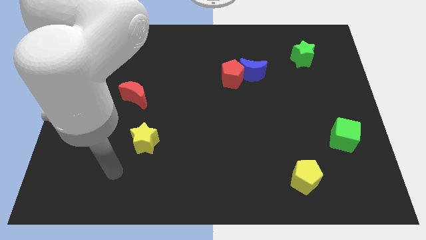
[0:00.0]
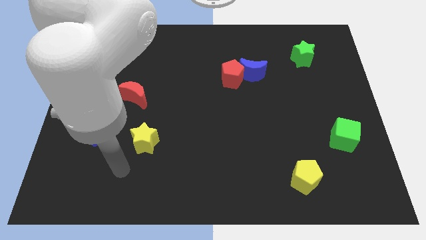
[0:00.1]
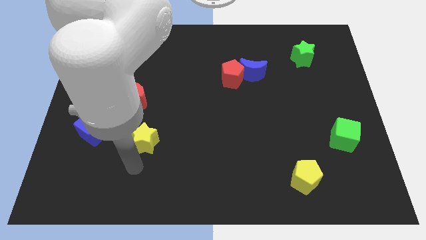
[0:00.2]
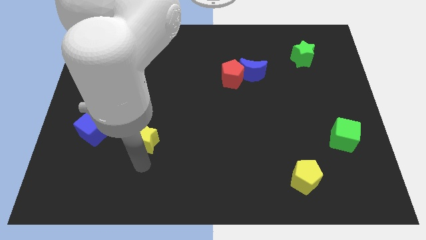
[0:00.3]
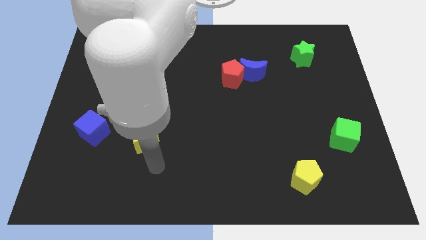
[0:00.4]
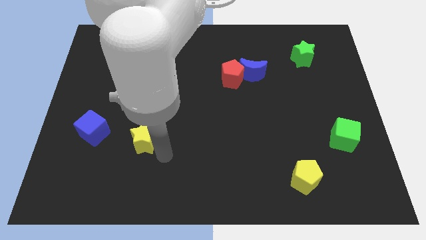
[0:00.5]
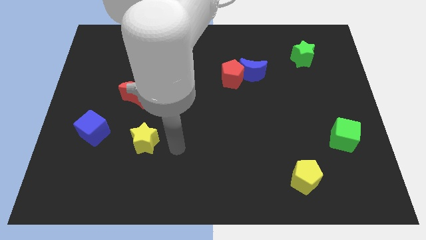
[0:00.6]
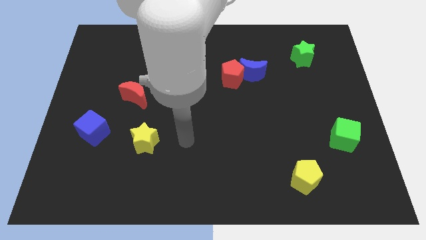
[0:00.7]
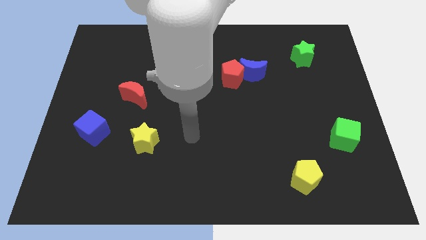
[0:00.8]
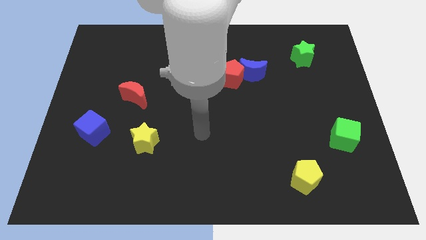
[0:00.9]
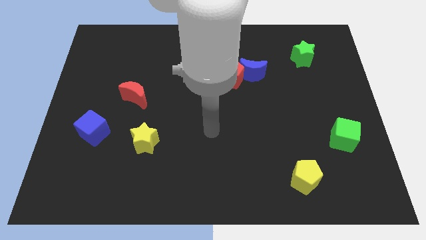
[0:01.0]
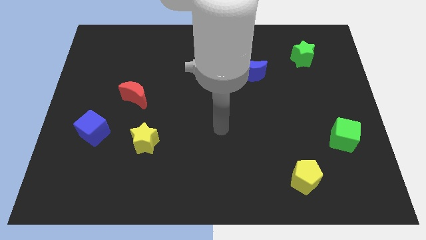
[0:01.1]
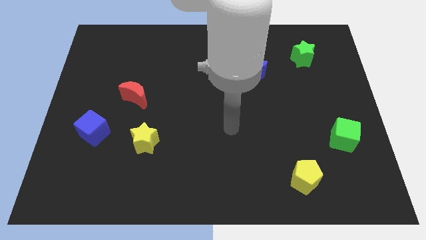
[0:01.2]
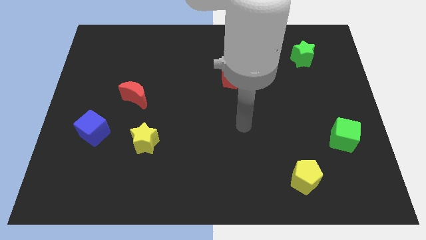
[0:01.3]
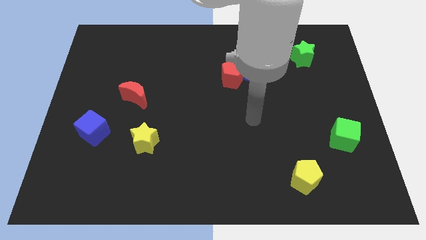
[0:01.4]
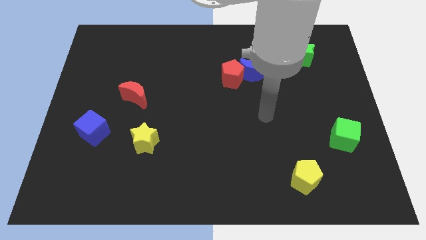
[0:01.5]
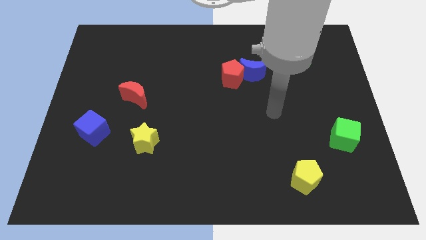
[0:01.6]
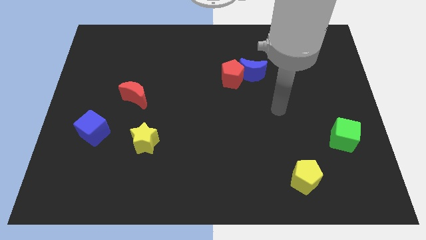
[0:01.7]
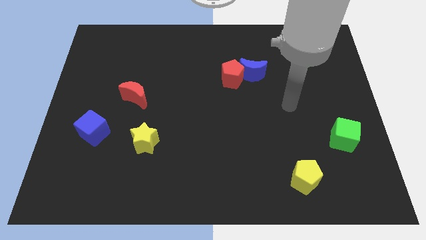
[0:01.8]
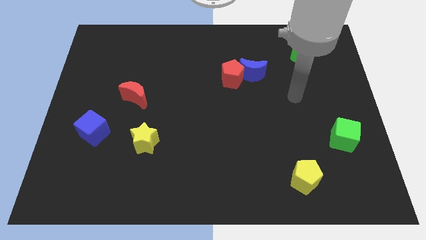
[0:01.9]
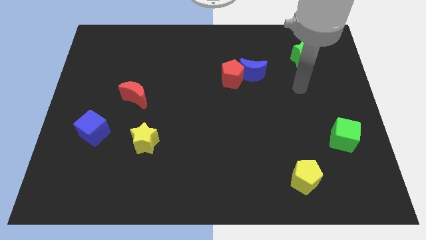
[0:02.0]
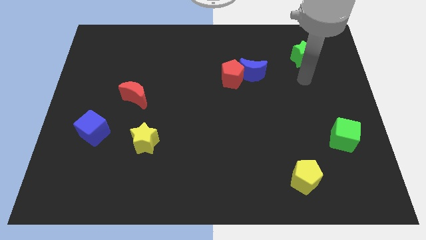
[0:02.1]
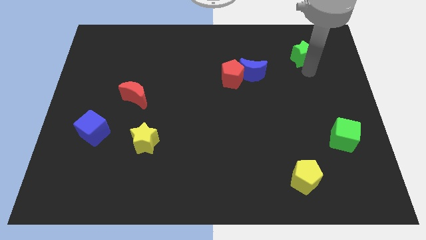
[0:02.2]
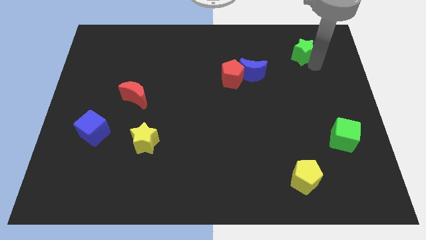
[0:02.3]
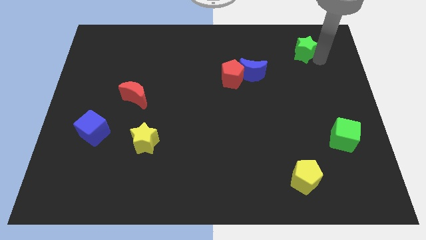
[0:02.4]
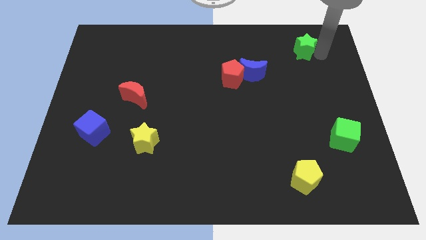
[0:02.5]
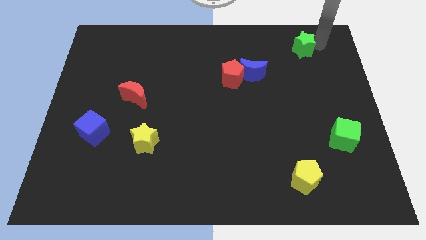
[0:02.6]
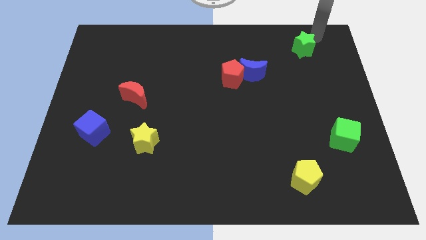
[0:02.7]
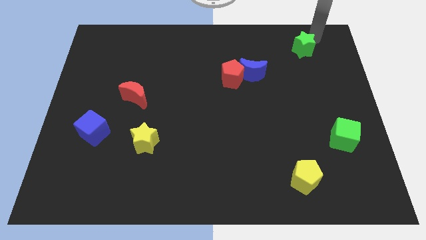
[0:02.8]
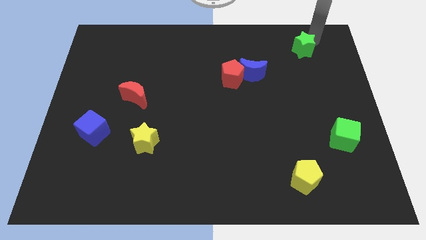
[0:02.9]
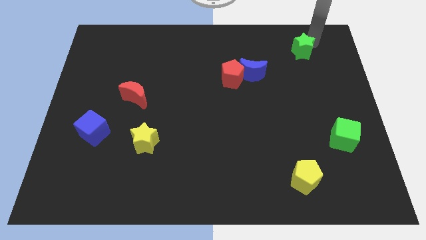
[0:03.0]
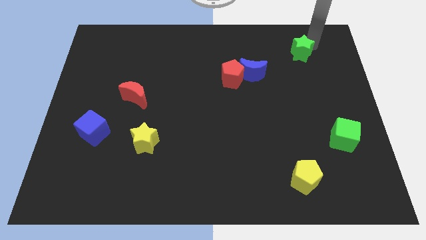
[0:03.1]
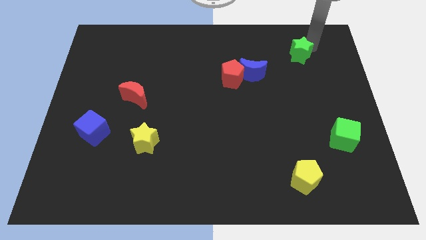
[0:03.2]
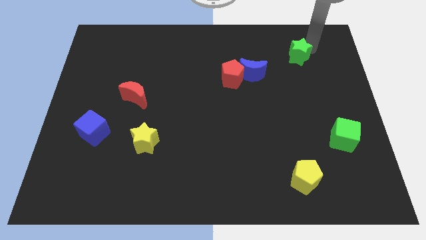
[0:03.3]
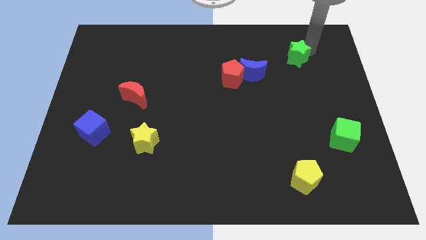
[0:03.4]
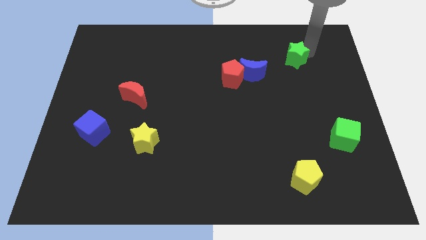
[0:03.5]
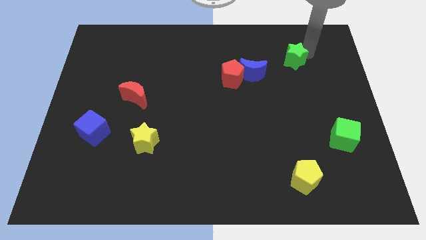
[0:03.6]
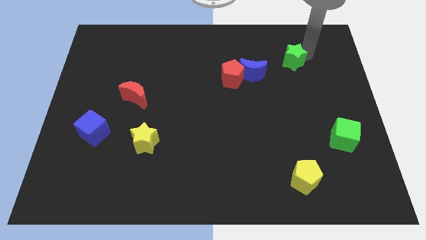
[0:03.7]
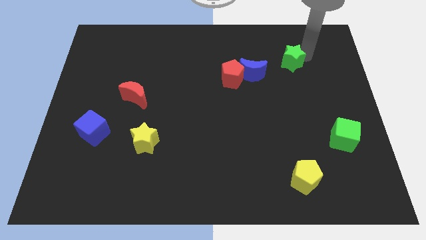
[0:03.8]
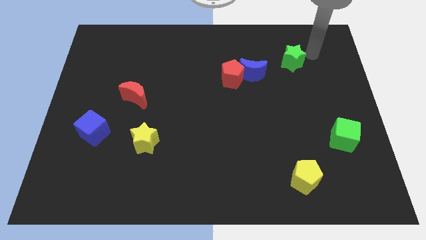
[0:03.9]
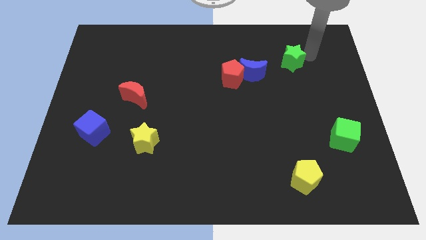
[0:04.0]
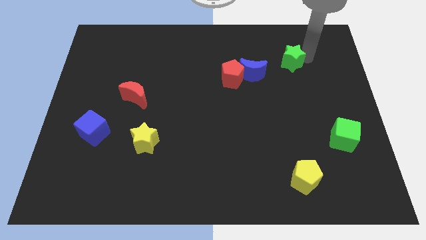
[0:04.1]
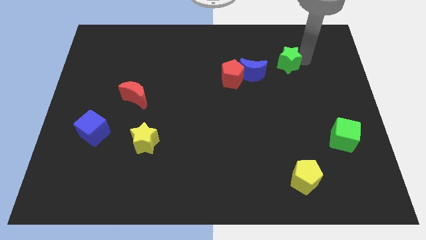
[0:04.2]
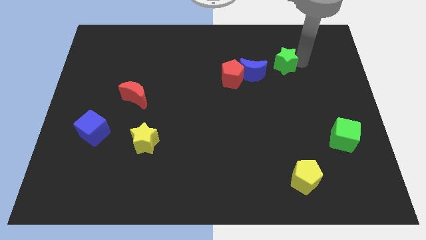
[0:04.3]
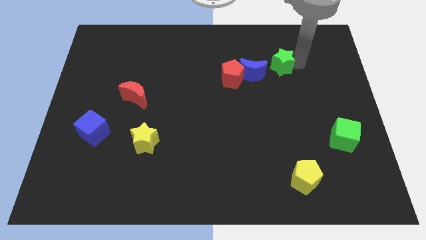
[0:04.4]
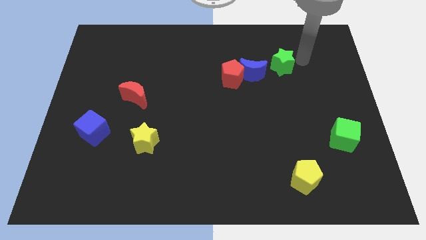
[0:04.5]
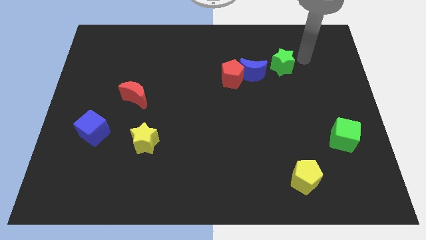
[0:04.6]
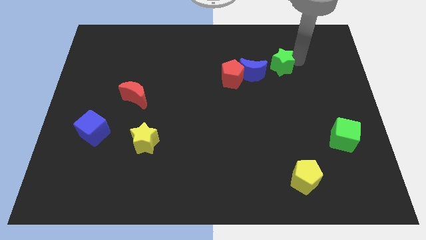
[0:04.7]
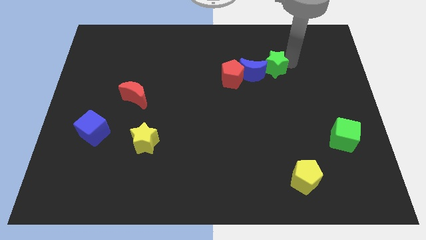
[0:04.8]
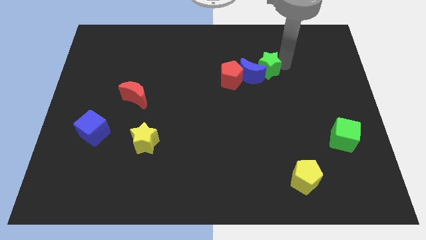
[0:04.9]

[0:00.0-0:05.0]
slide the green star next to the blue moon
